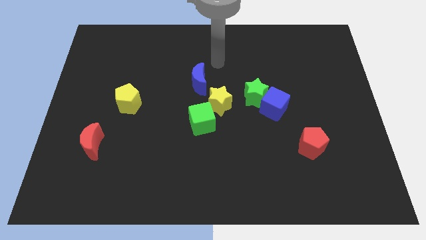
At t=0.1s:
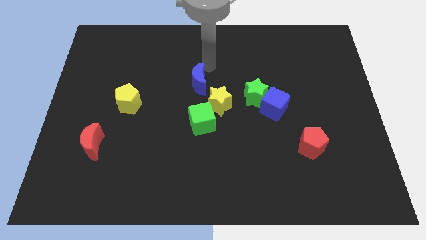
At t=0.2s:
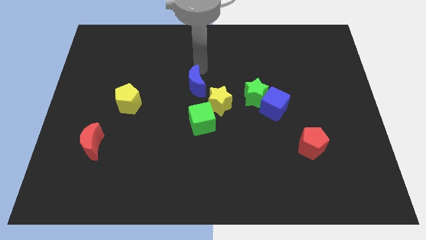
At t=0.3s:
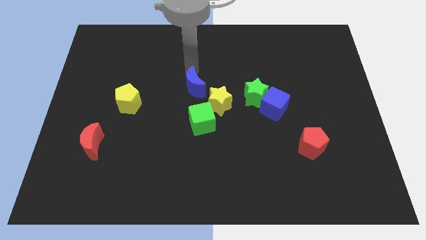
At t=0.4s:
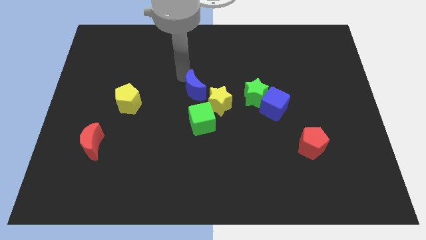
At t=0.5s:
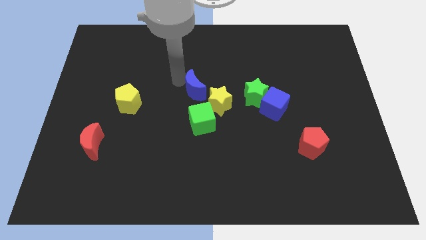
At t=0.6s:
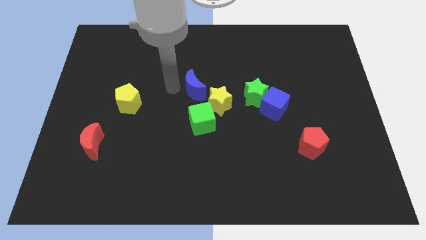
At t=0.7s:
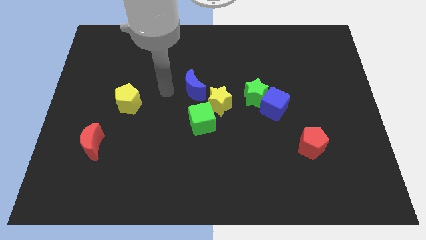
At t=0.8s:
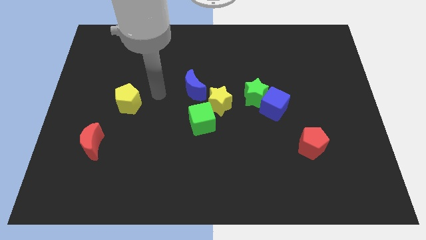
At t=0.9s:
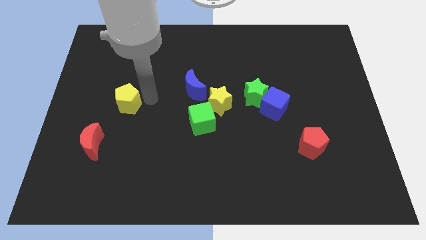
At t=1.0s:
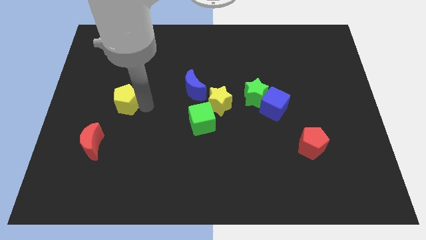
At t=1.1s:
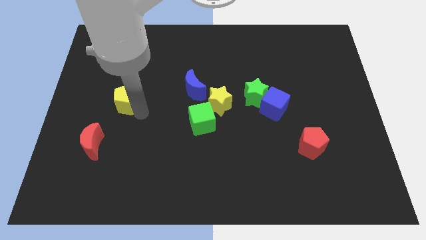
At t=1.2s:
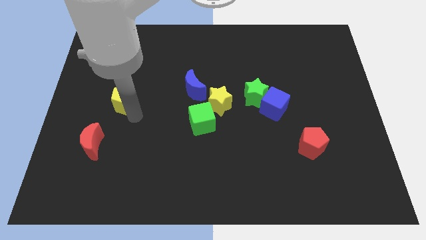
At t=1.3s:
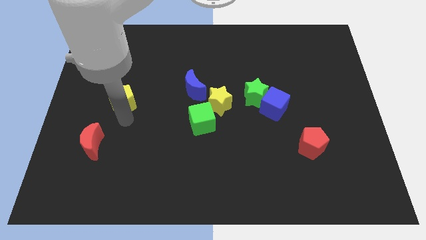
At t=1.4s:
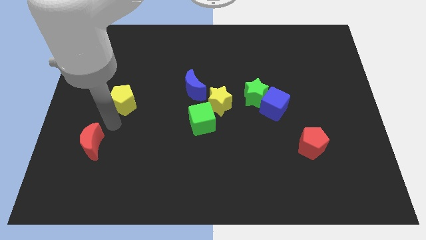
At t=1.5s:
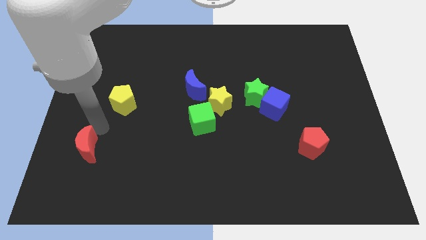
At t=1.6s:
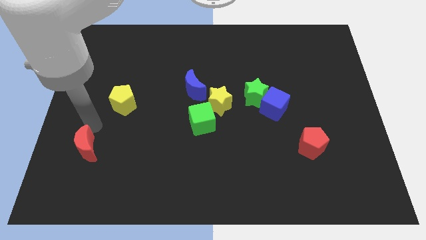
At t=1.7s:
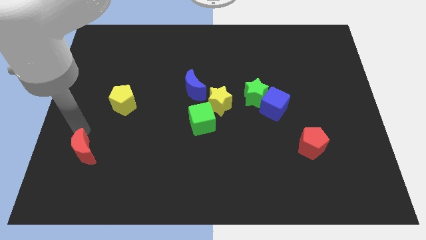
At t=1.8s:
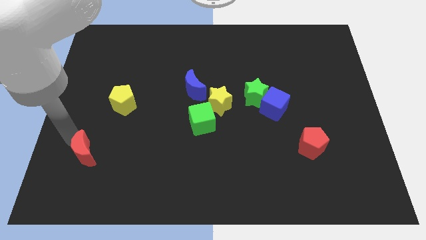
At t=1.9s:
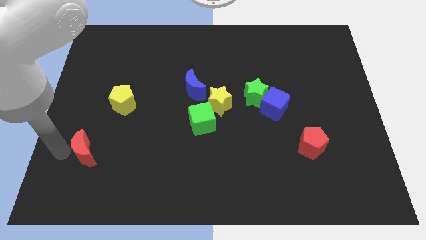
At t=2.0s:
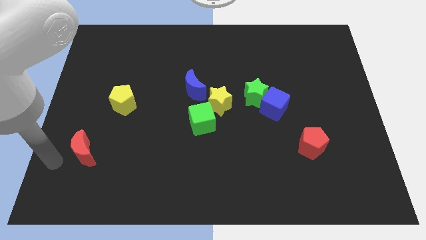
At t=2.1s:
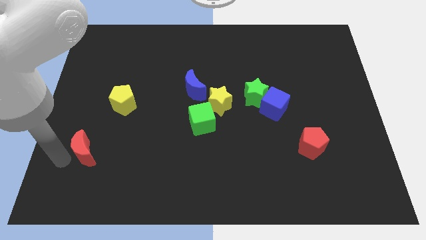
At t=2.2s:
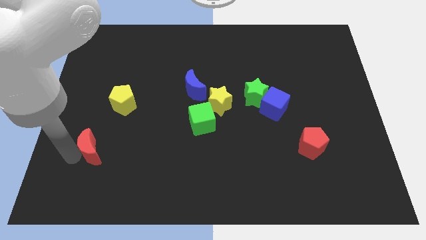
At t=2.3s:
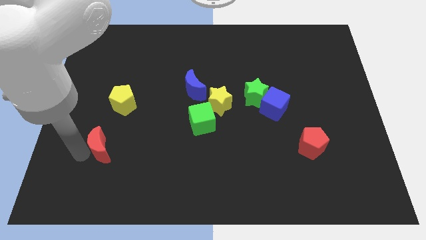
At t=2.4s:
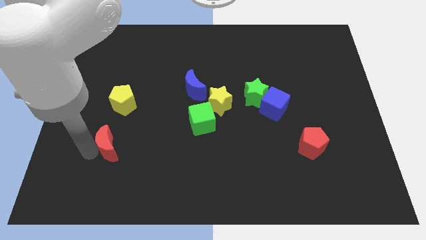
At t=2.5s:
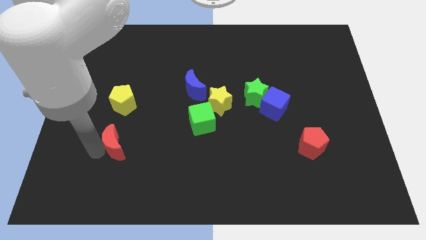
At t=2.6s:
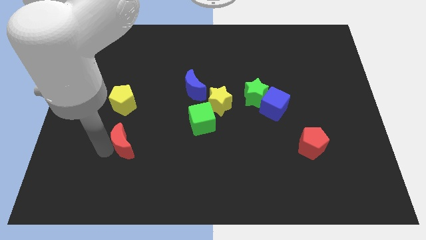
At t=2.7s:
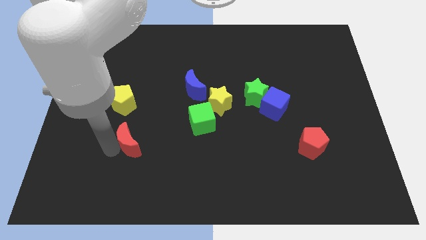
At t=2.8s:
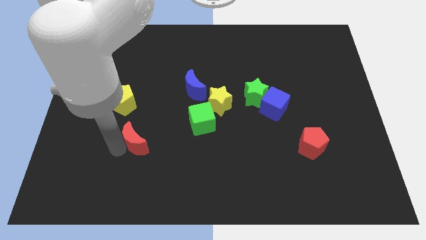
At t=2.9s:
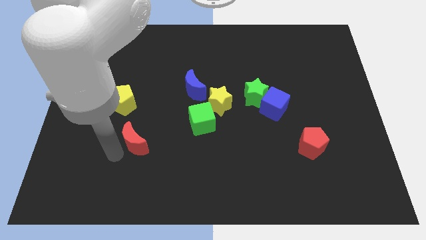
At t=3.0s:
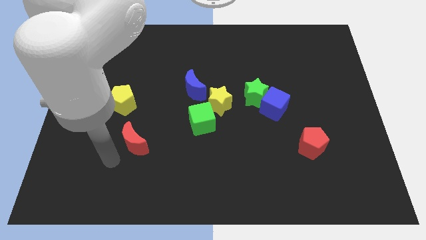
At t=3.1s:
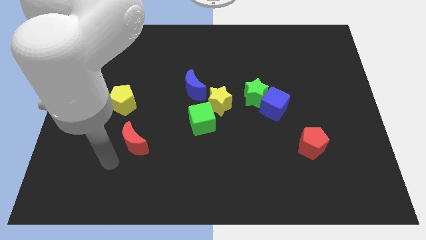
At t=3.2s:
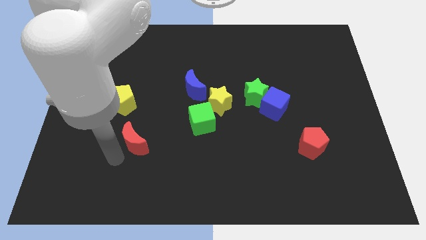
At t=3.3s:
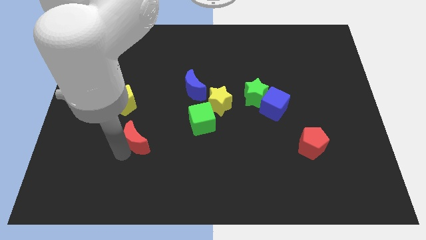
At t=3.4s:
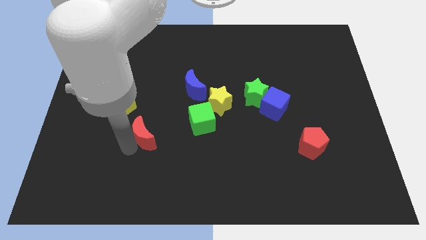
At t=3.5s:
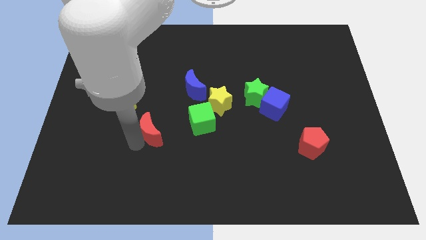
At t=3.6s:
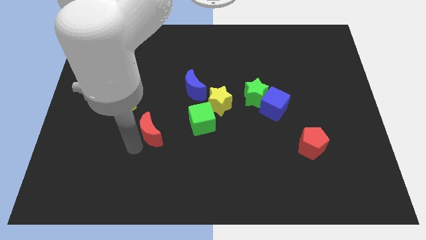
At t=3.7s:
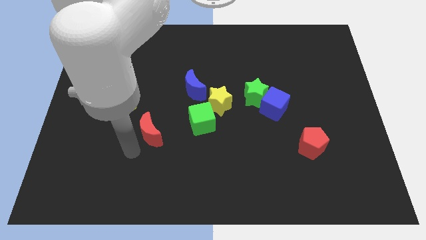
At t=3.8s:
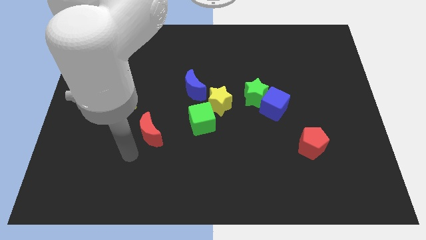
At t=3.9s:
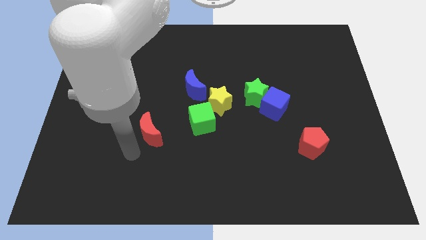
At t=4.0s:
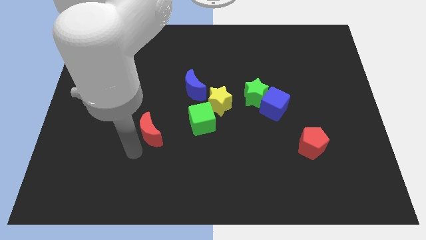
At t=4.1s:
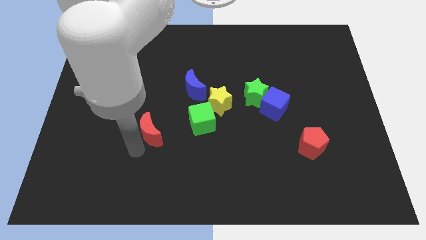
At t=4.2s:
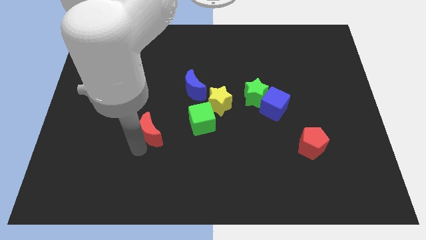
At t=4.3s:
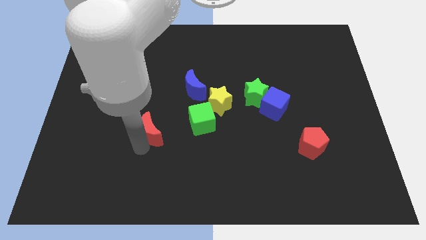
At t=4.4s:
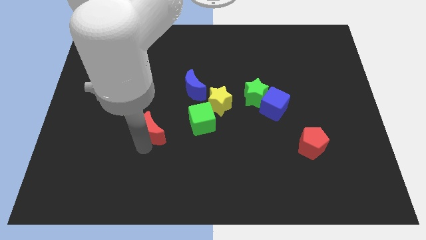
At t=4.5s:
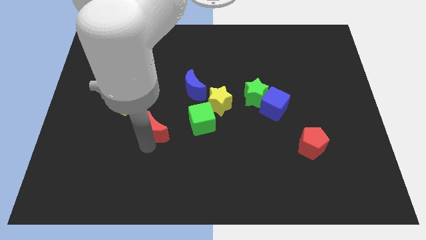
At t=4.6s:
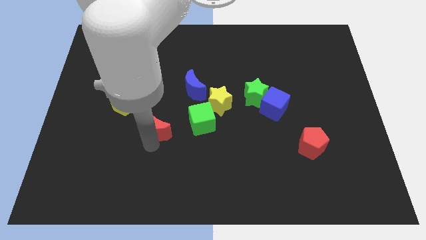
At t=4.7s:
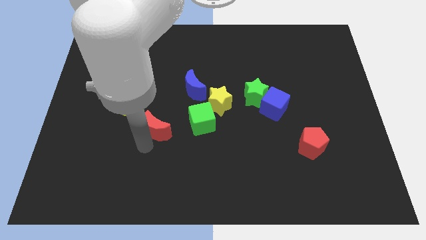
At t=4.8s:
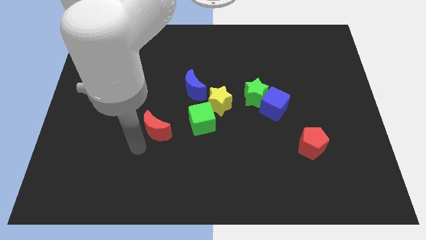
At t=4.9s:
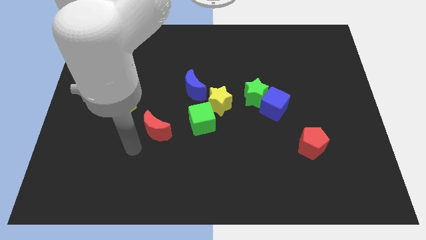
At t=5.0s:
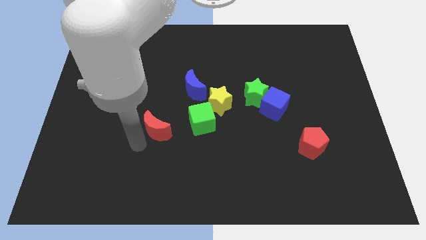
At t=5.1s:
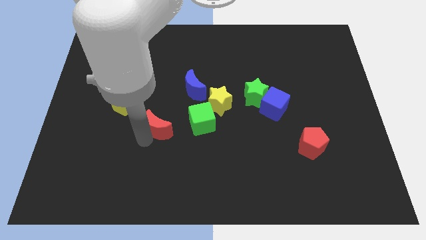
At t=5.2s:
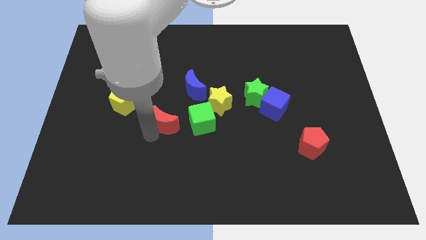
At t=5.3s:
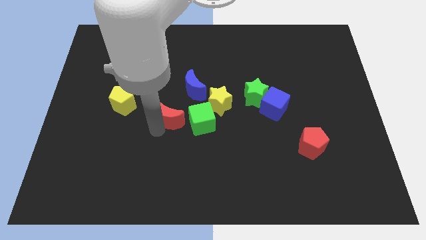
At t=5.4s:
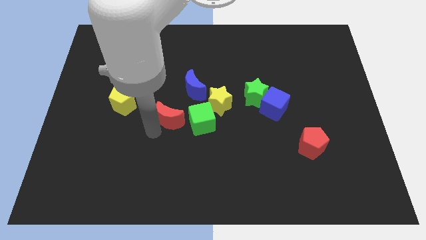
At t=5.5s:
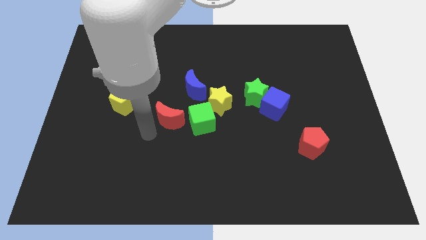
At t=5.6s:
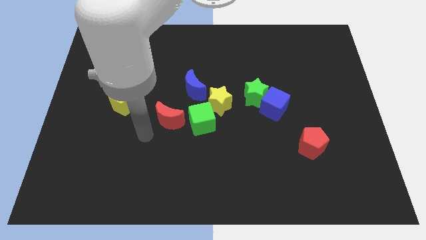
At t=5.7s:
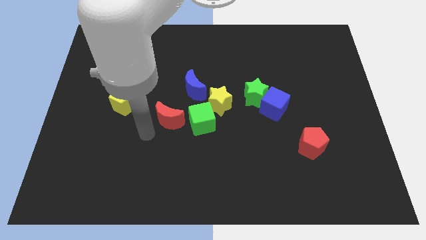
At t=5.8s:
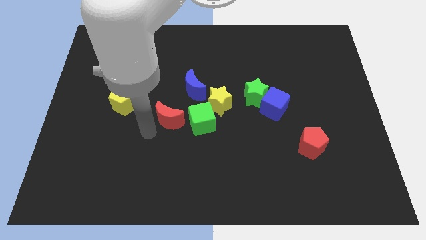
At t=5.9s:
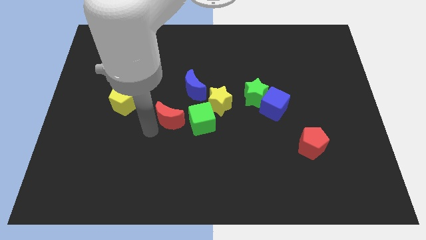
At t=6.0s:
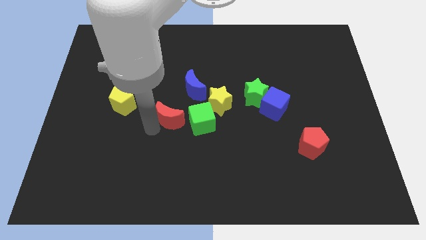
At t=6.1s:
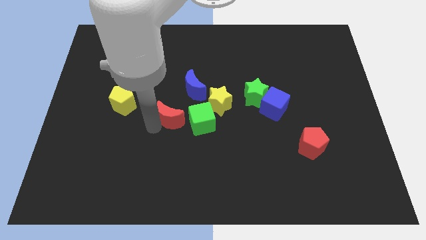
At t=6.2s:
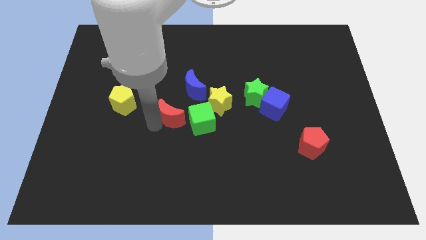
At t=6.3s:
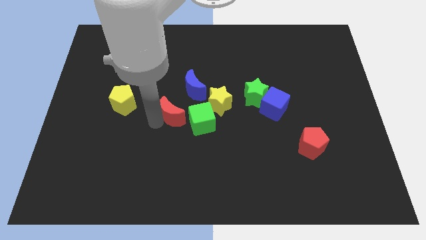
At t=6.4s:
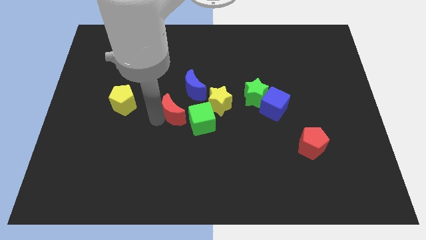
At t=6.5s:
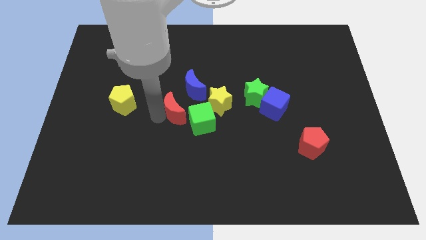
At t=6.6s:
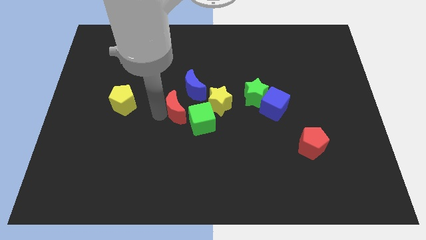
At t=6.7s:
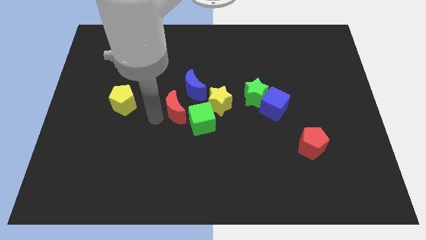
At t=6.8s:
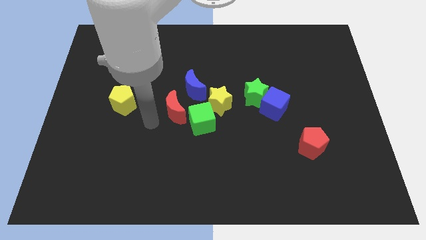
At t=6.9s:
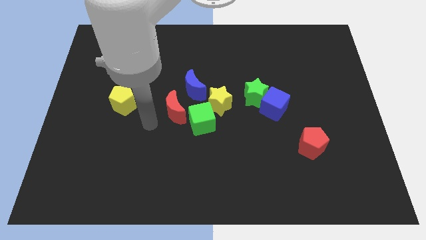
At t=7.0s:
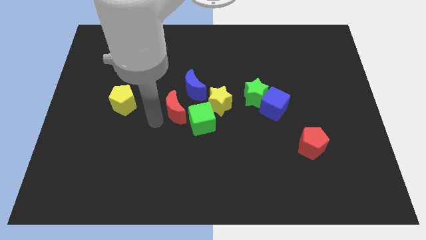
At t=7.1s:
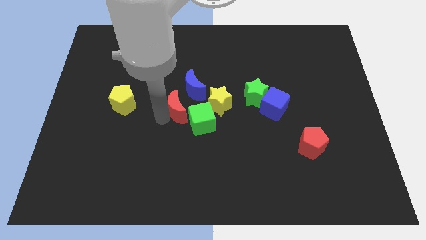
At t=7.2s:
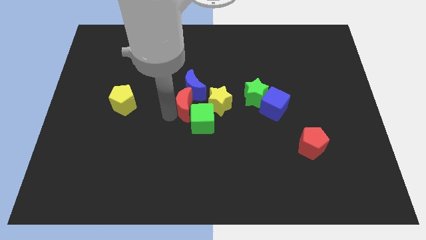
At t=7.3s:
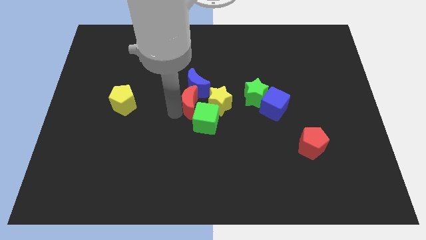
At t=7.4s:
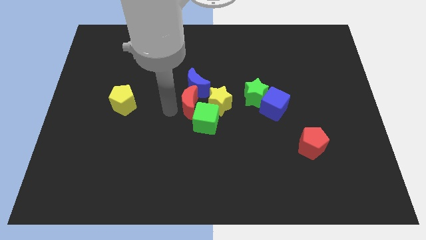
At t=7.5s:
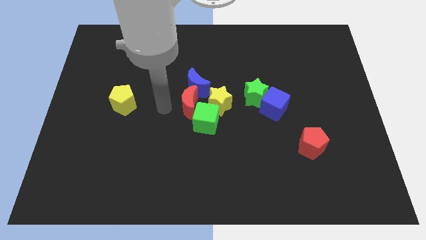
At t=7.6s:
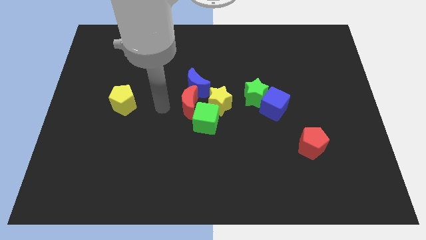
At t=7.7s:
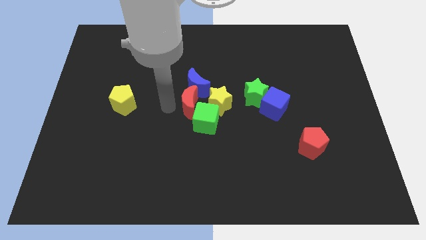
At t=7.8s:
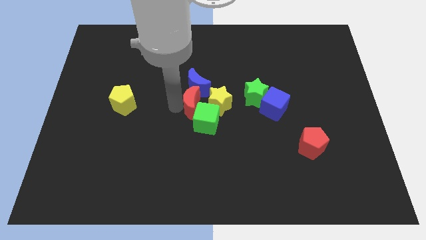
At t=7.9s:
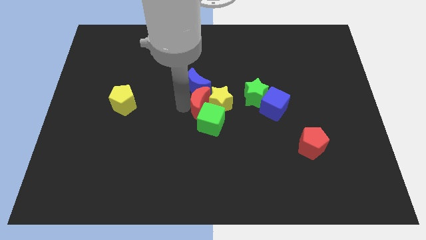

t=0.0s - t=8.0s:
push the red moon to the yellow star

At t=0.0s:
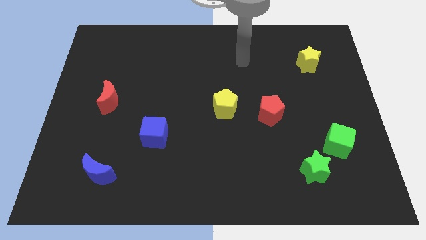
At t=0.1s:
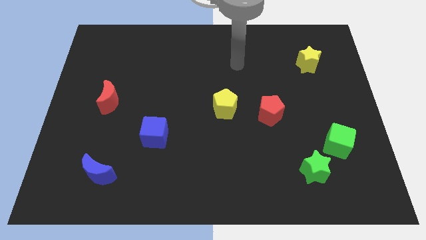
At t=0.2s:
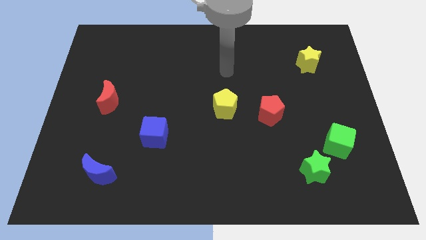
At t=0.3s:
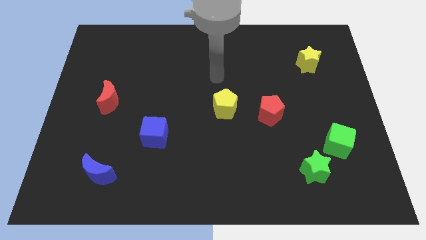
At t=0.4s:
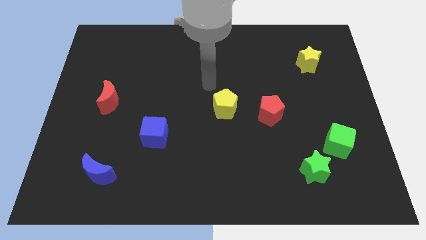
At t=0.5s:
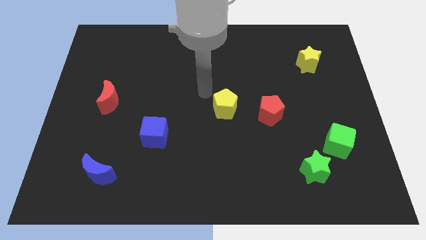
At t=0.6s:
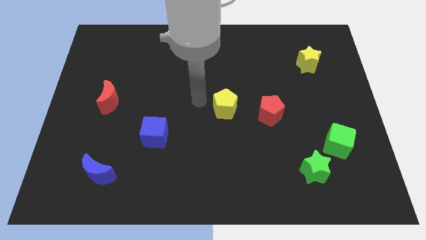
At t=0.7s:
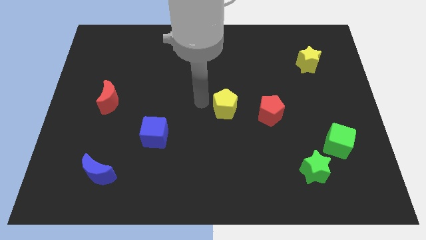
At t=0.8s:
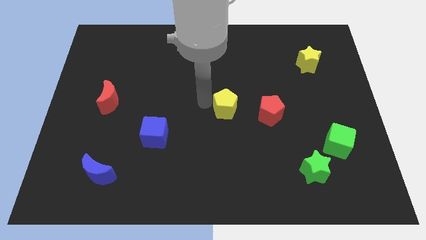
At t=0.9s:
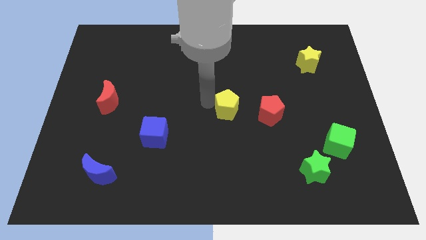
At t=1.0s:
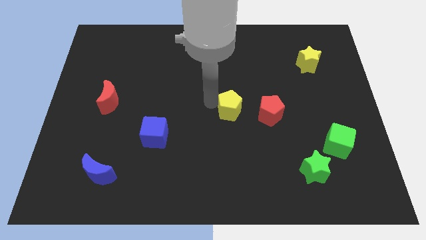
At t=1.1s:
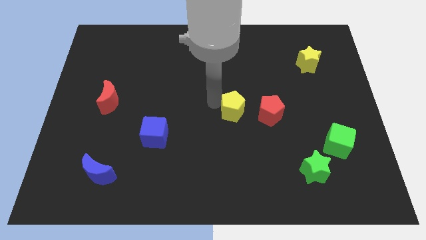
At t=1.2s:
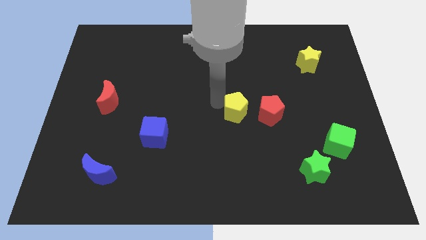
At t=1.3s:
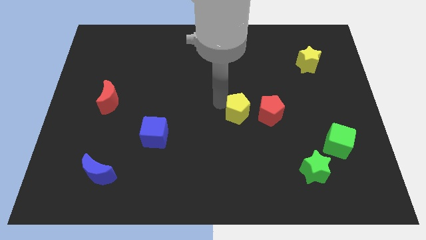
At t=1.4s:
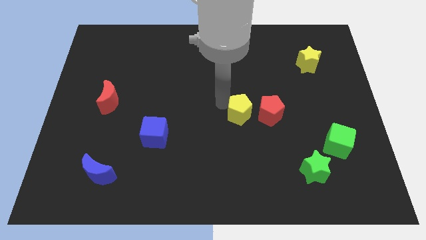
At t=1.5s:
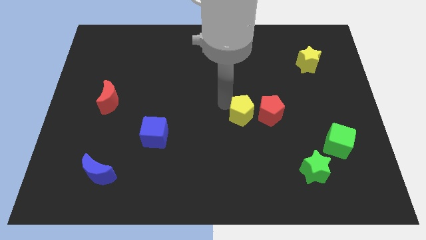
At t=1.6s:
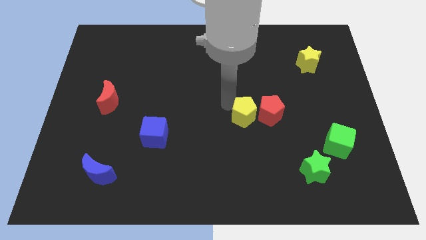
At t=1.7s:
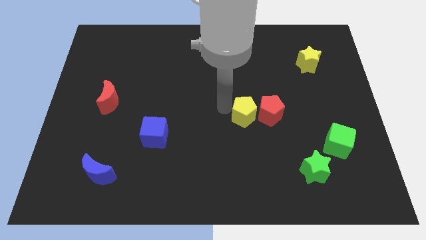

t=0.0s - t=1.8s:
slide the yellow pentagon towards the red pentagon
